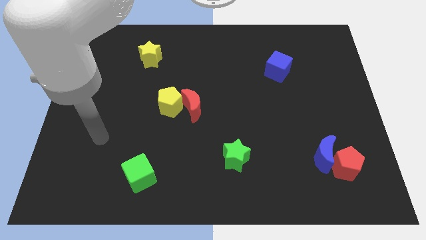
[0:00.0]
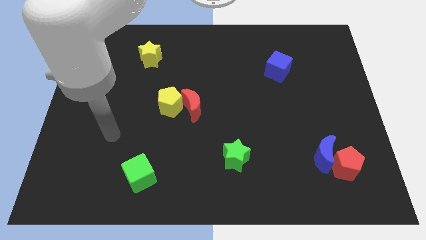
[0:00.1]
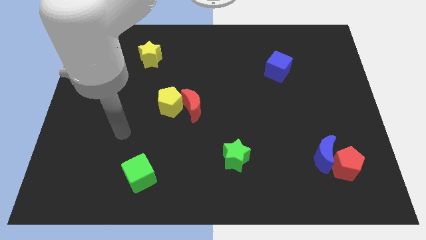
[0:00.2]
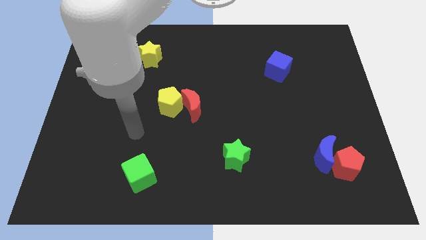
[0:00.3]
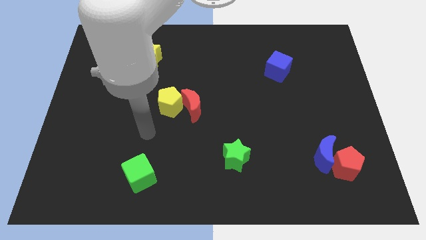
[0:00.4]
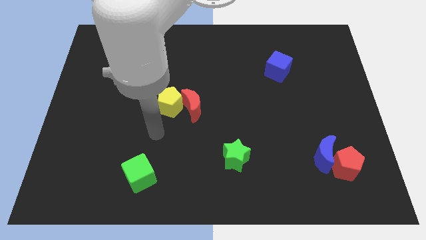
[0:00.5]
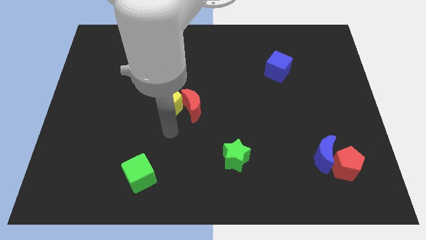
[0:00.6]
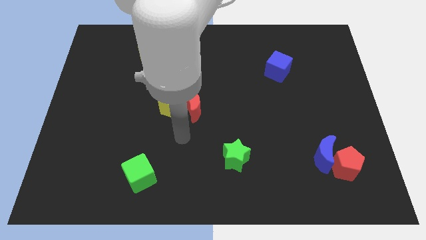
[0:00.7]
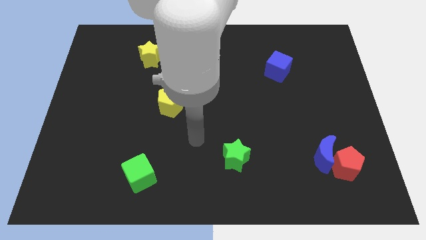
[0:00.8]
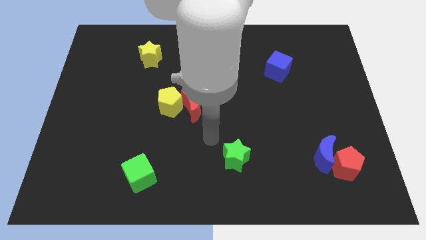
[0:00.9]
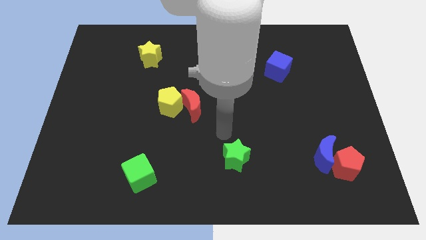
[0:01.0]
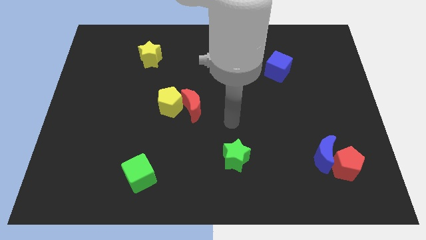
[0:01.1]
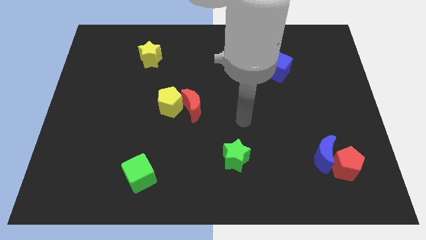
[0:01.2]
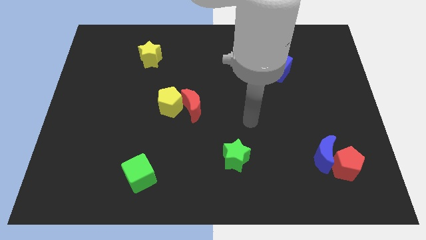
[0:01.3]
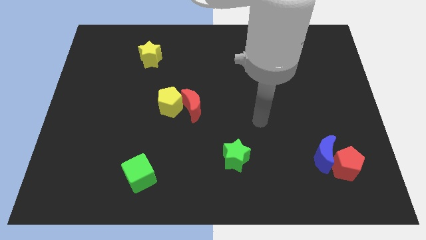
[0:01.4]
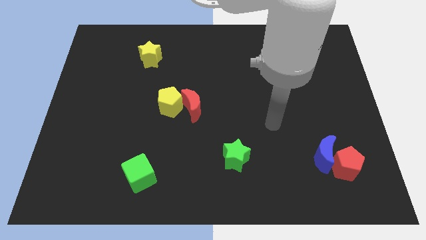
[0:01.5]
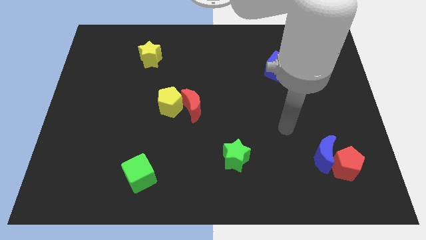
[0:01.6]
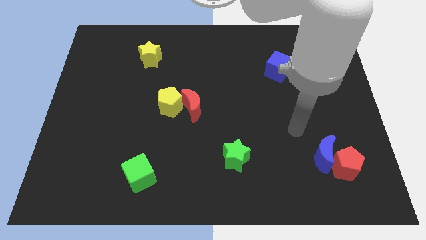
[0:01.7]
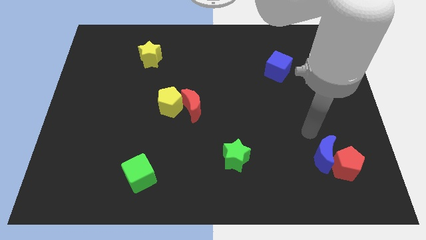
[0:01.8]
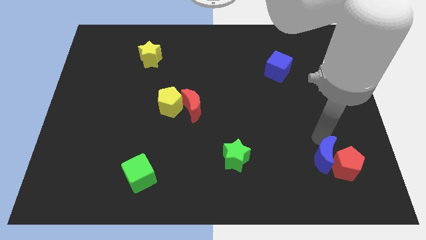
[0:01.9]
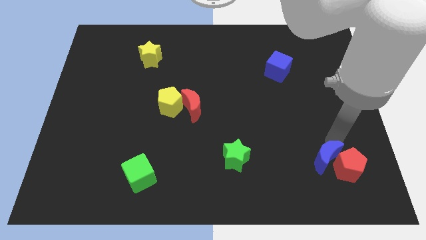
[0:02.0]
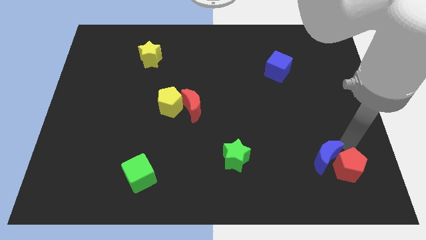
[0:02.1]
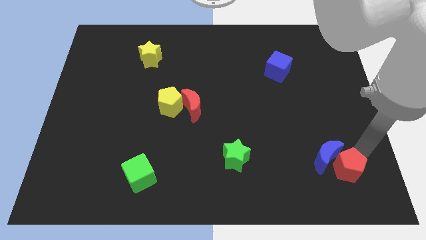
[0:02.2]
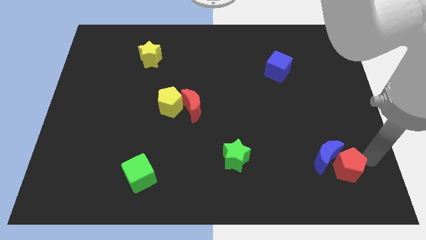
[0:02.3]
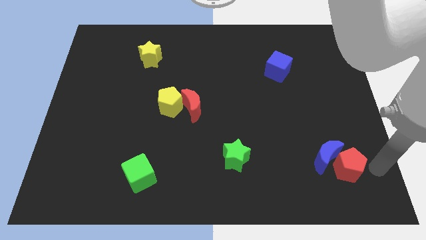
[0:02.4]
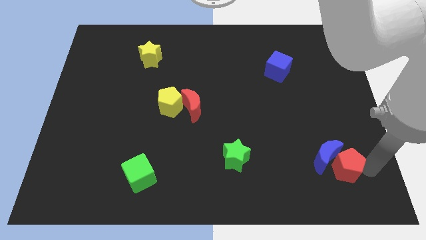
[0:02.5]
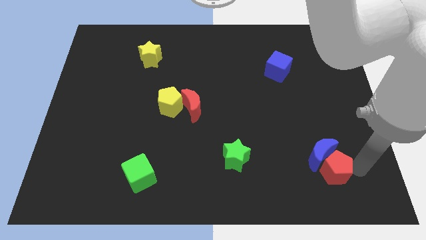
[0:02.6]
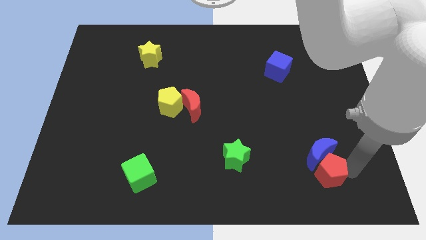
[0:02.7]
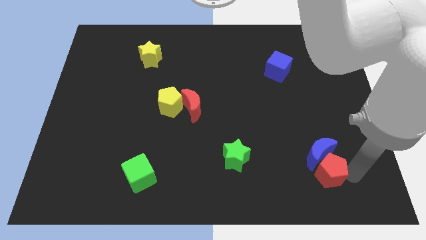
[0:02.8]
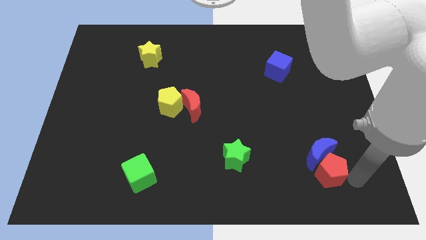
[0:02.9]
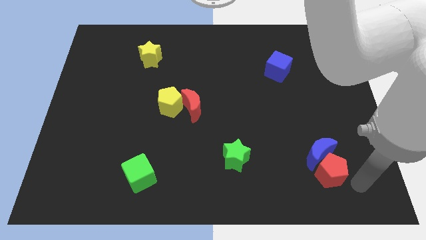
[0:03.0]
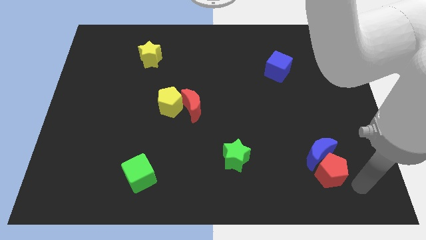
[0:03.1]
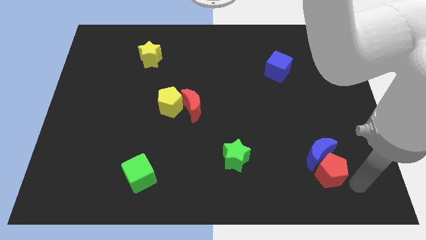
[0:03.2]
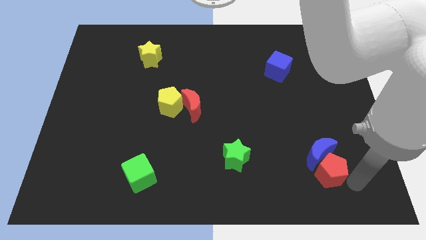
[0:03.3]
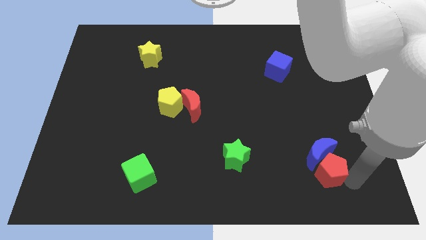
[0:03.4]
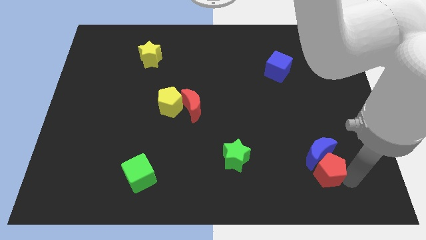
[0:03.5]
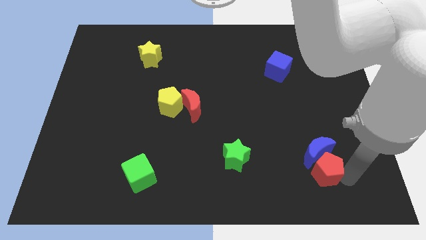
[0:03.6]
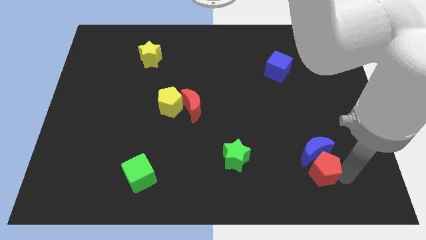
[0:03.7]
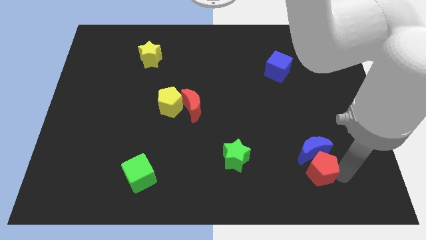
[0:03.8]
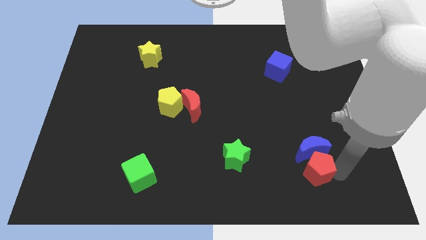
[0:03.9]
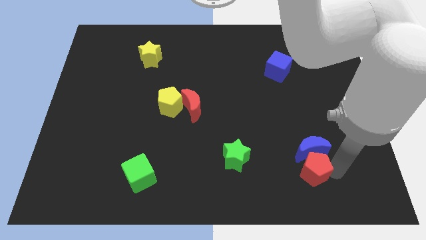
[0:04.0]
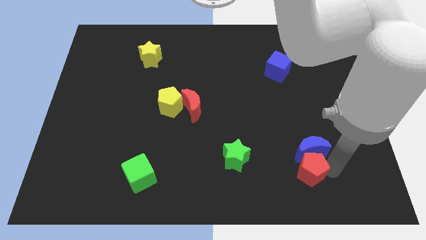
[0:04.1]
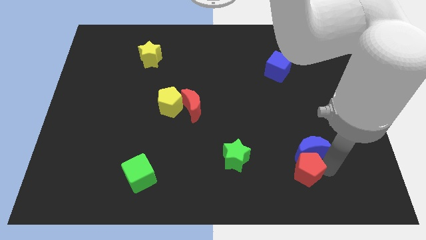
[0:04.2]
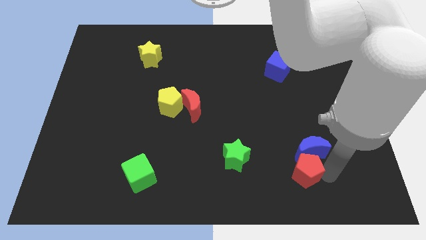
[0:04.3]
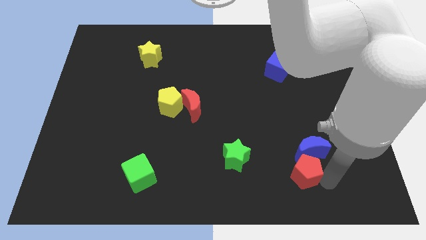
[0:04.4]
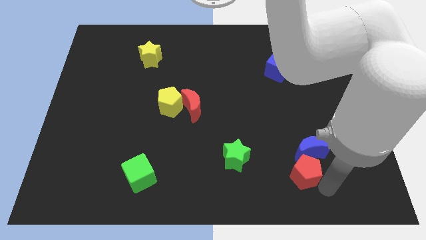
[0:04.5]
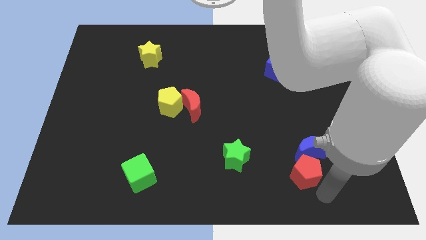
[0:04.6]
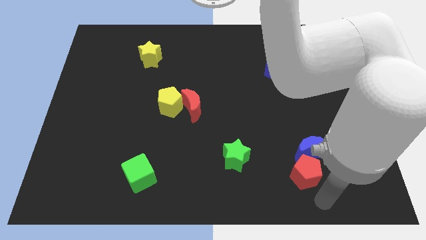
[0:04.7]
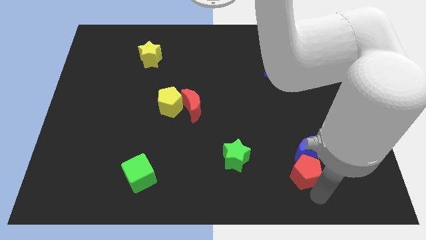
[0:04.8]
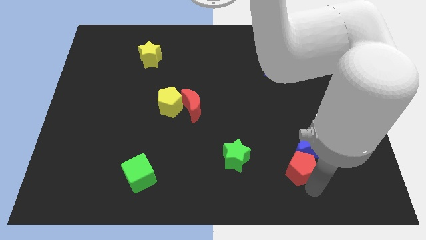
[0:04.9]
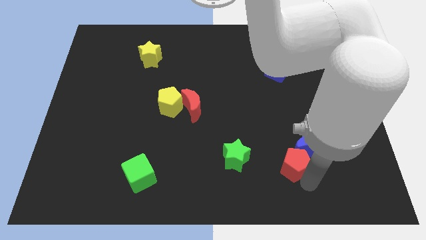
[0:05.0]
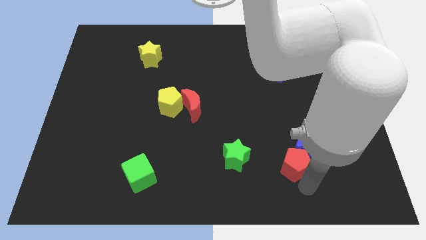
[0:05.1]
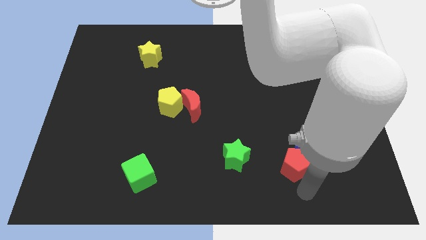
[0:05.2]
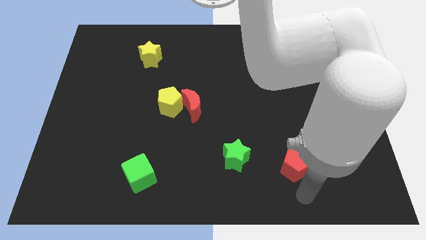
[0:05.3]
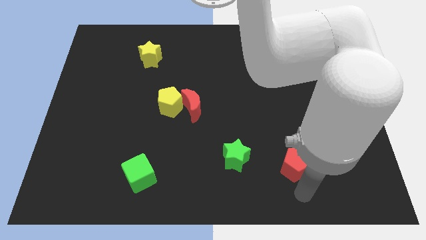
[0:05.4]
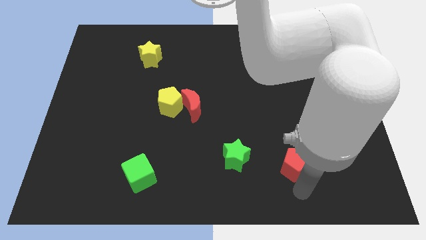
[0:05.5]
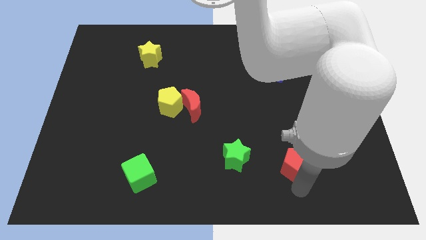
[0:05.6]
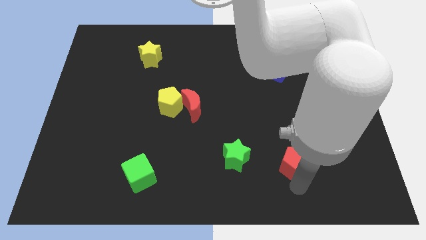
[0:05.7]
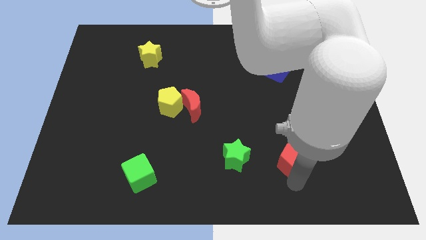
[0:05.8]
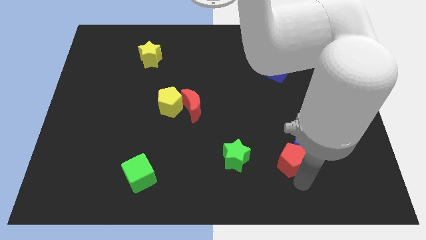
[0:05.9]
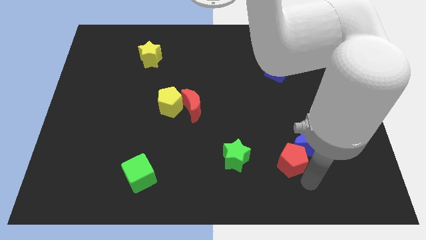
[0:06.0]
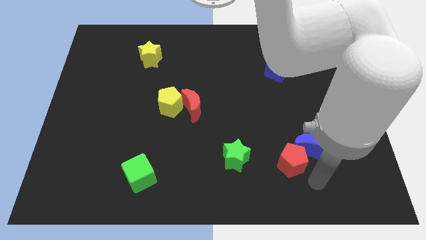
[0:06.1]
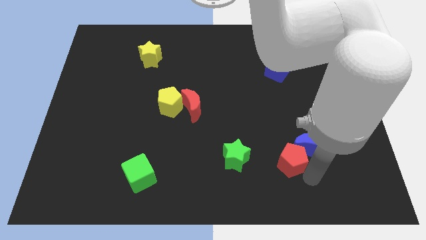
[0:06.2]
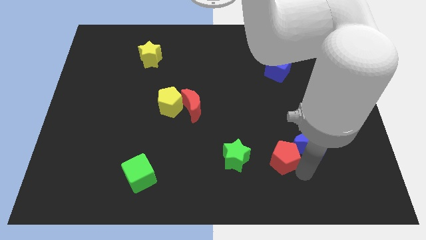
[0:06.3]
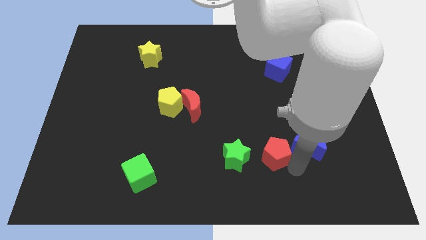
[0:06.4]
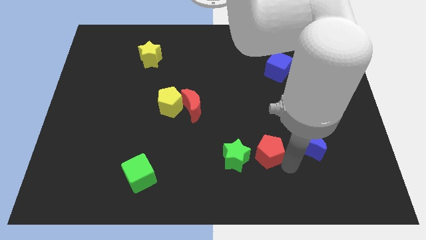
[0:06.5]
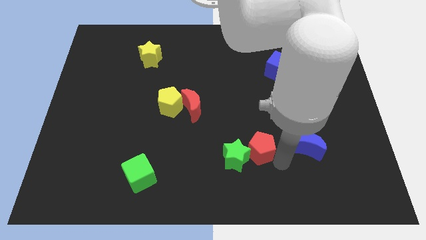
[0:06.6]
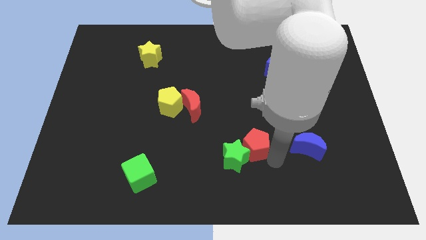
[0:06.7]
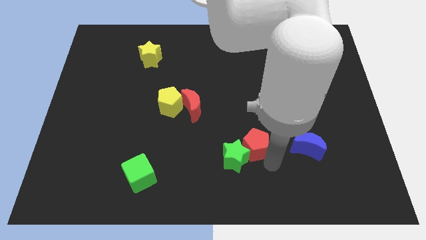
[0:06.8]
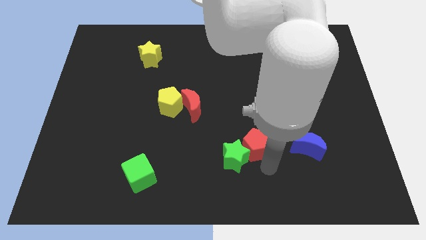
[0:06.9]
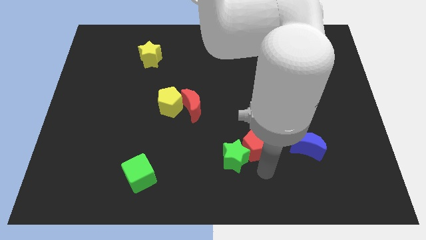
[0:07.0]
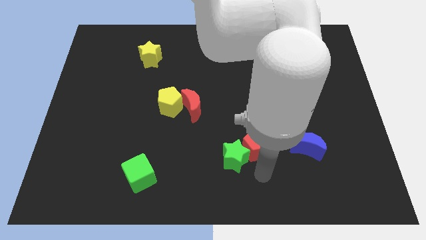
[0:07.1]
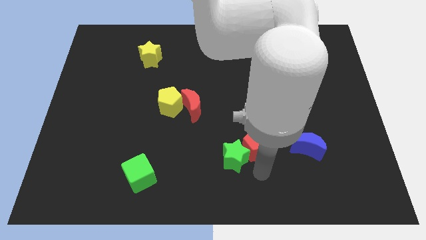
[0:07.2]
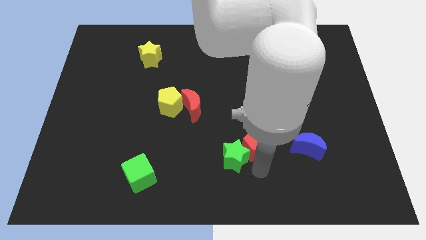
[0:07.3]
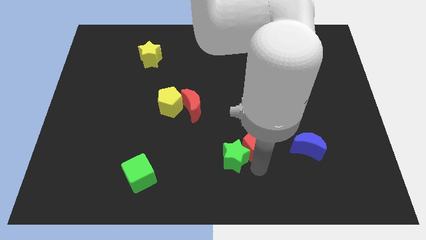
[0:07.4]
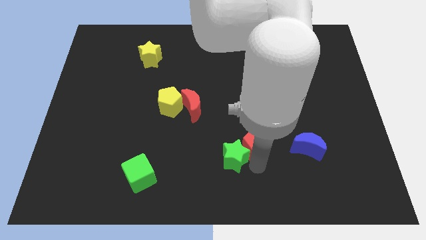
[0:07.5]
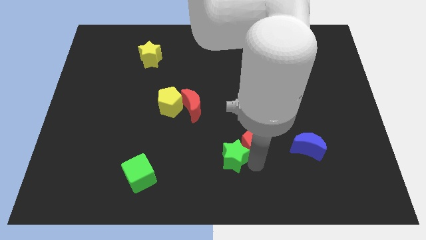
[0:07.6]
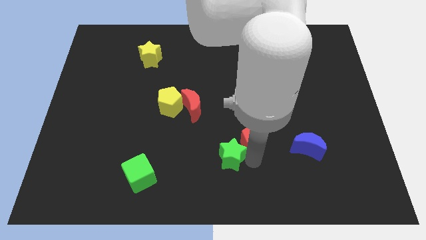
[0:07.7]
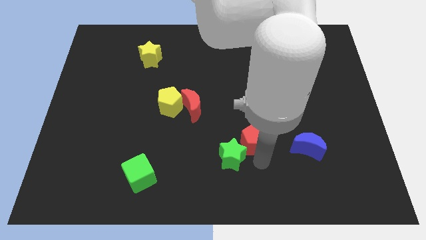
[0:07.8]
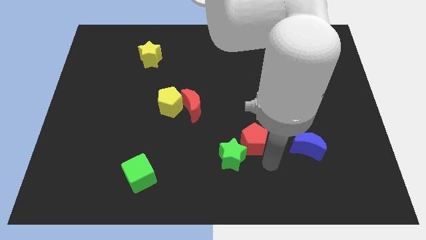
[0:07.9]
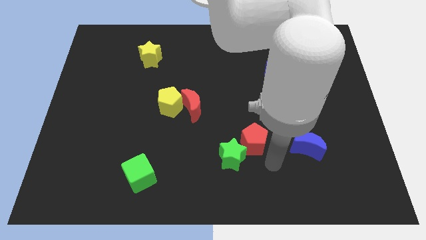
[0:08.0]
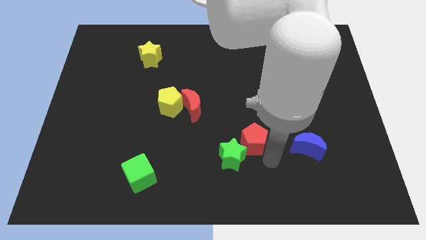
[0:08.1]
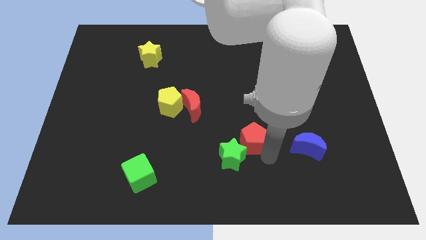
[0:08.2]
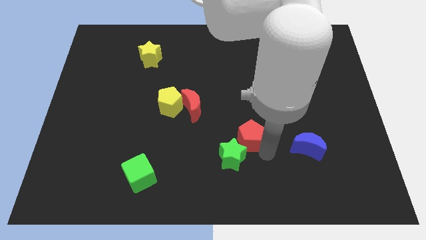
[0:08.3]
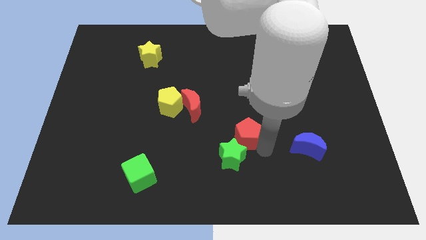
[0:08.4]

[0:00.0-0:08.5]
slide the red pentagon to the center
